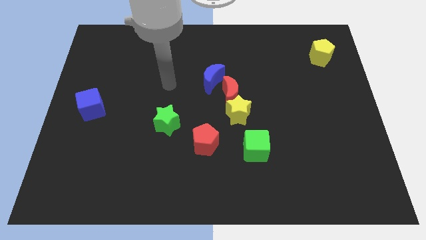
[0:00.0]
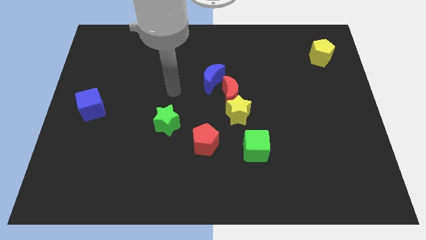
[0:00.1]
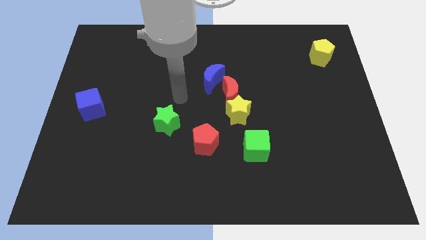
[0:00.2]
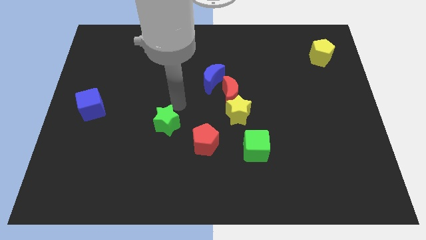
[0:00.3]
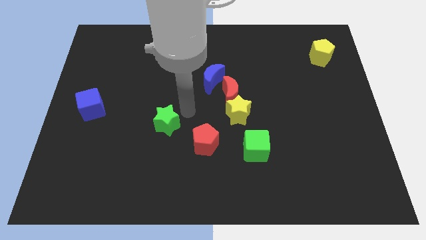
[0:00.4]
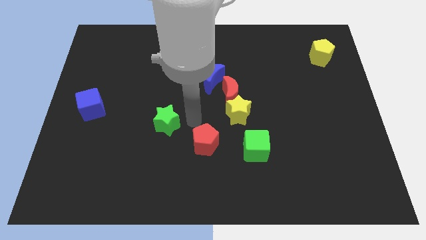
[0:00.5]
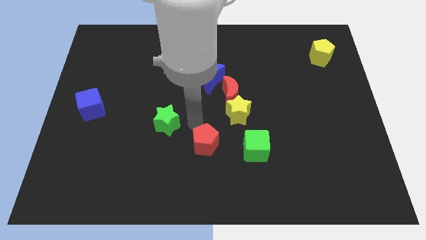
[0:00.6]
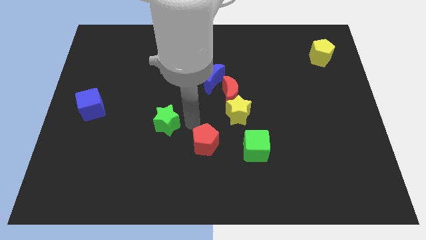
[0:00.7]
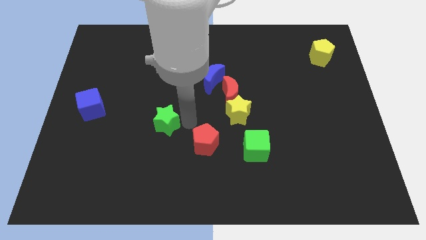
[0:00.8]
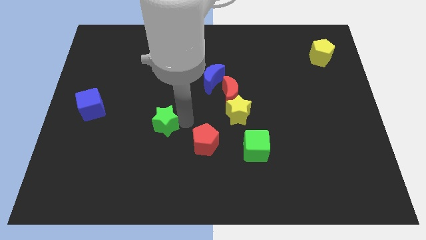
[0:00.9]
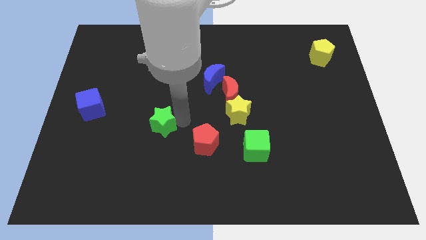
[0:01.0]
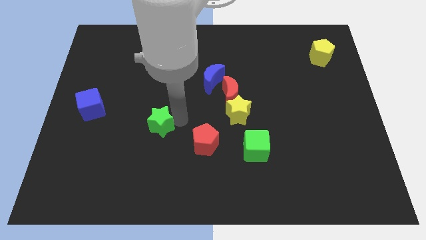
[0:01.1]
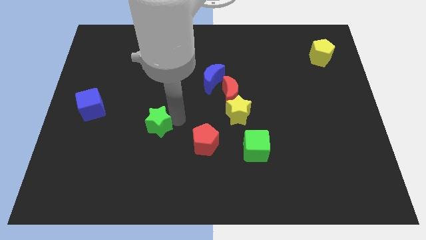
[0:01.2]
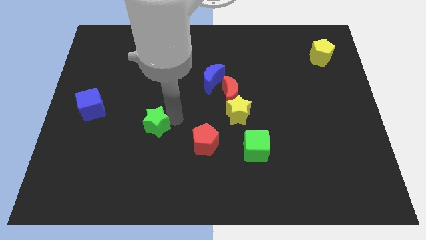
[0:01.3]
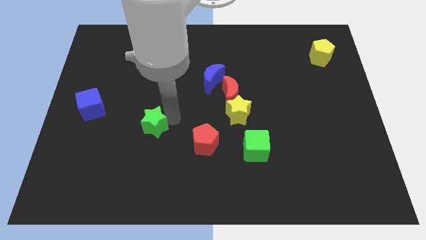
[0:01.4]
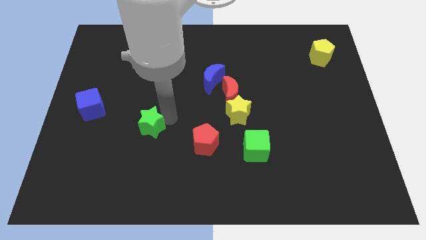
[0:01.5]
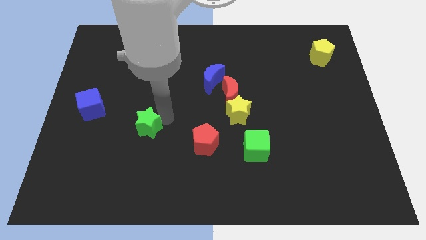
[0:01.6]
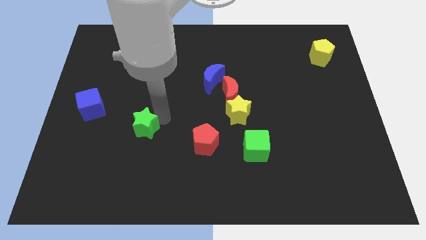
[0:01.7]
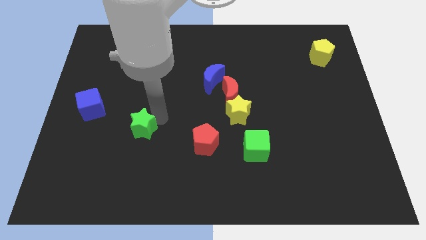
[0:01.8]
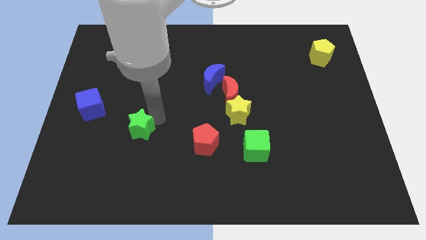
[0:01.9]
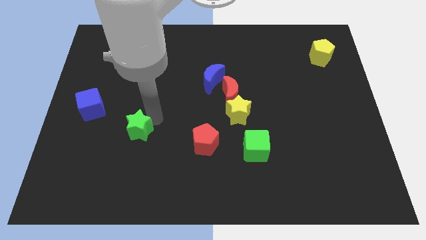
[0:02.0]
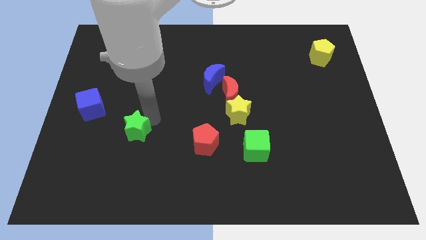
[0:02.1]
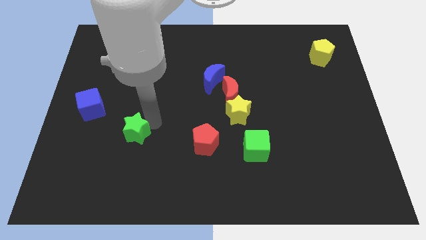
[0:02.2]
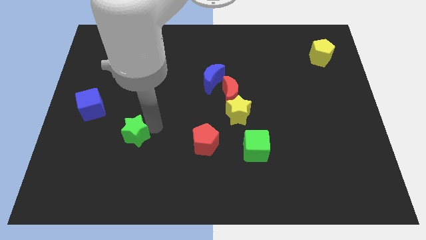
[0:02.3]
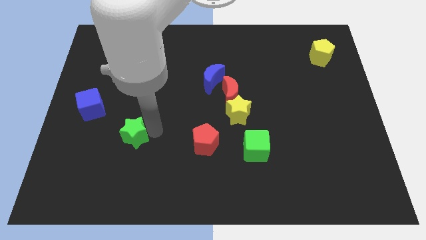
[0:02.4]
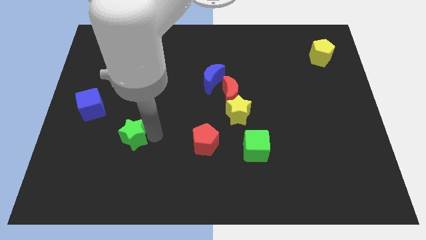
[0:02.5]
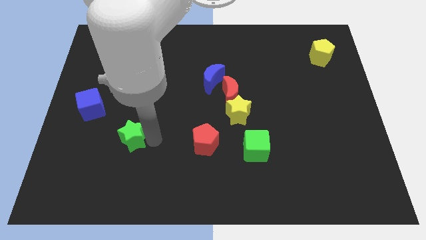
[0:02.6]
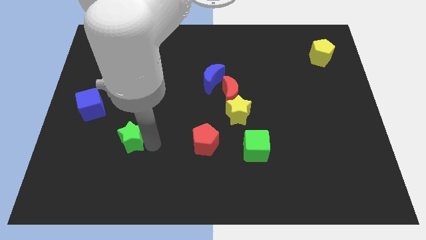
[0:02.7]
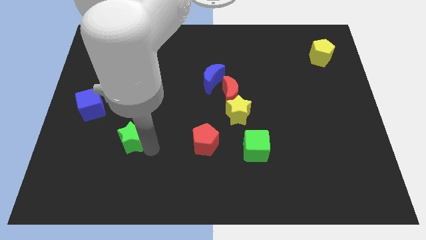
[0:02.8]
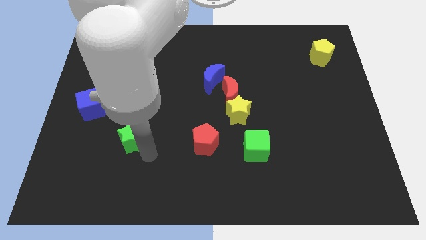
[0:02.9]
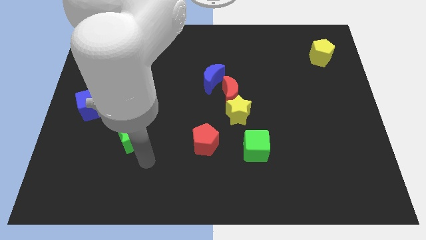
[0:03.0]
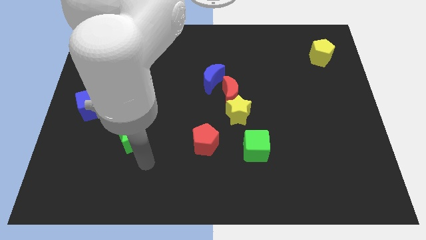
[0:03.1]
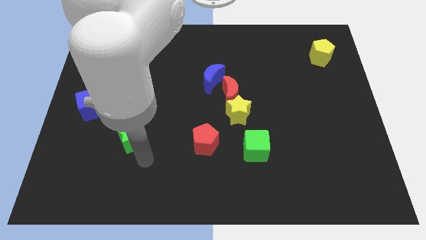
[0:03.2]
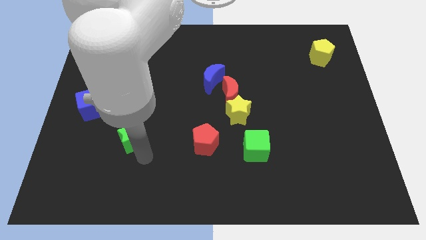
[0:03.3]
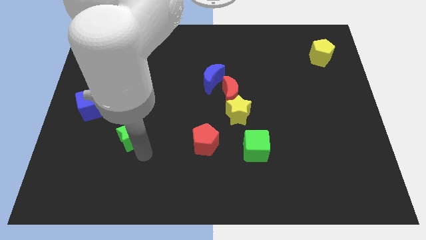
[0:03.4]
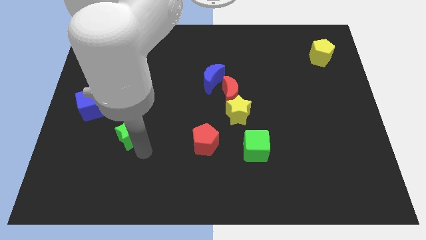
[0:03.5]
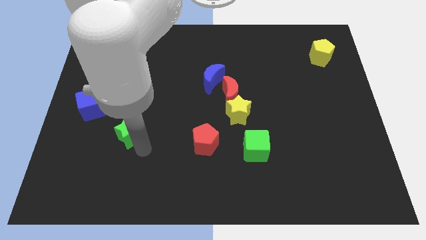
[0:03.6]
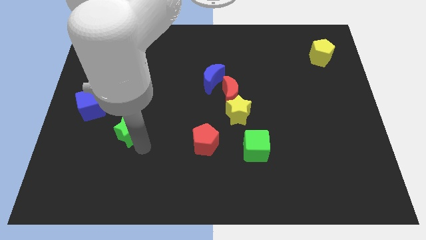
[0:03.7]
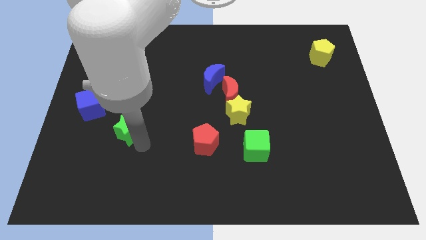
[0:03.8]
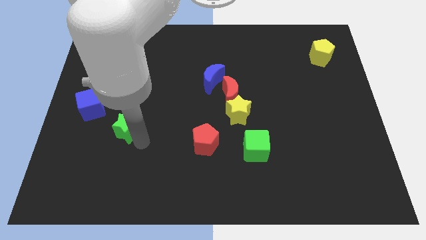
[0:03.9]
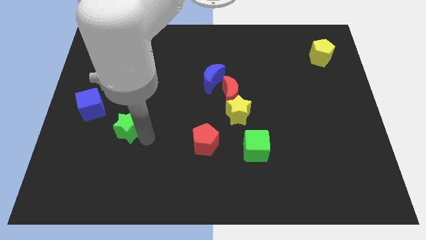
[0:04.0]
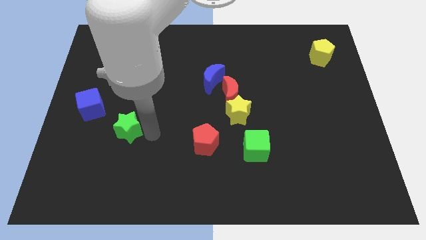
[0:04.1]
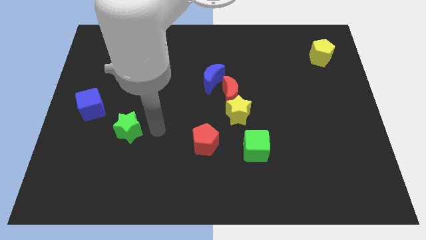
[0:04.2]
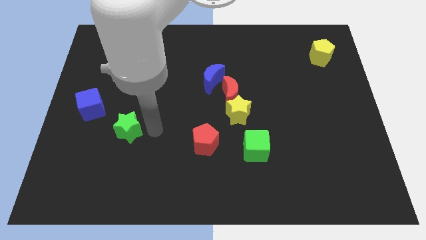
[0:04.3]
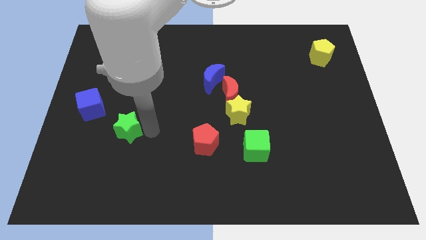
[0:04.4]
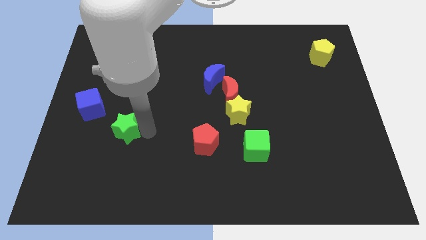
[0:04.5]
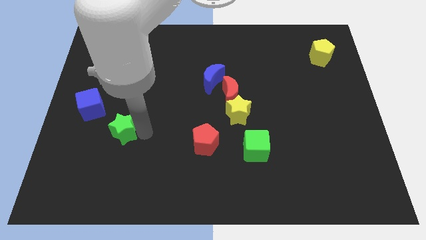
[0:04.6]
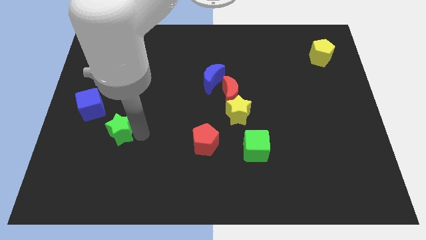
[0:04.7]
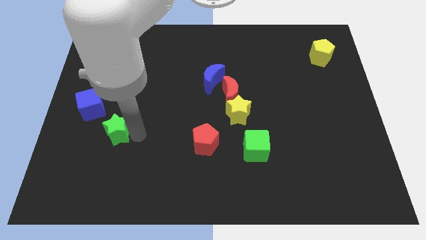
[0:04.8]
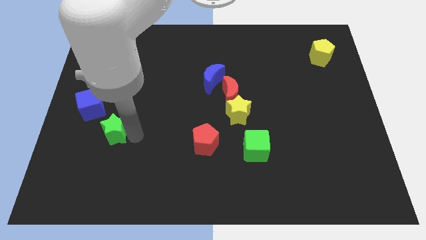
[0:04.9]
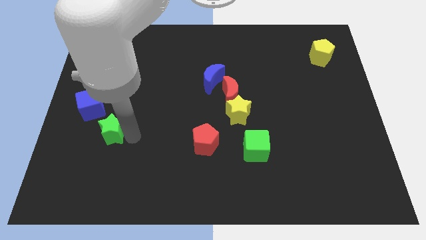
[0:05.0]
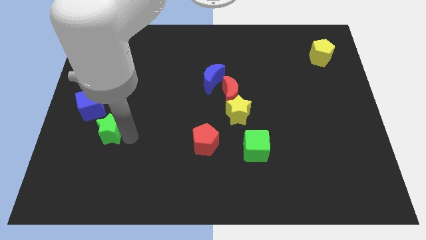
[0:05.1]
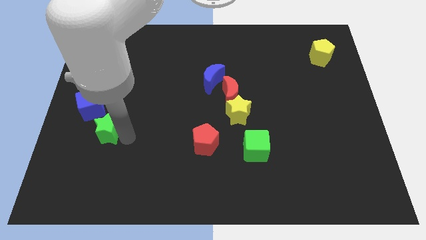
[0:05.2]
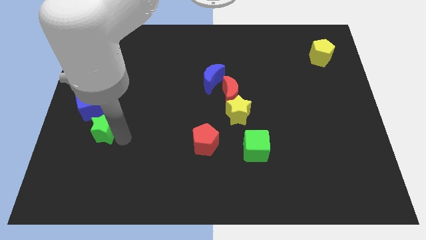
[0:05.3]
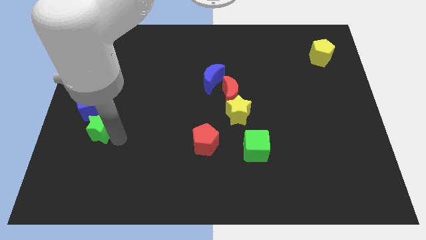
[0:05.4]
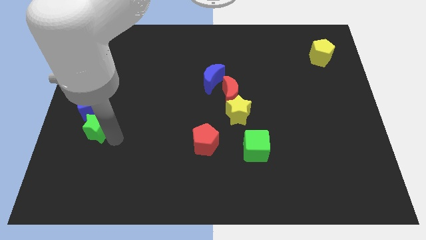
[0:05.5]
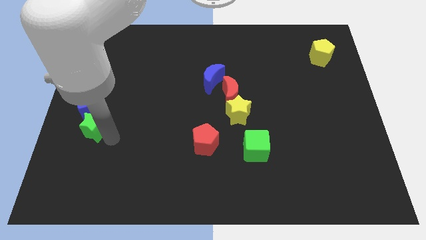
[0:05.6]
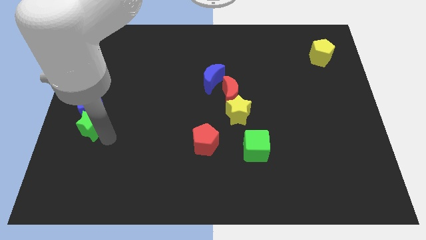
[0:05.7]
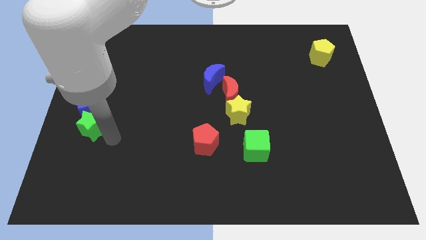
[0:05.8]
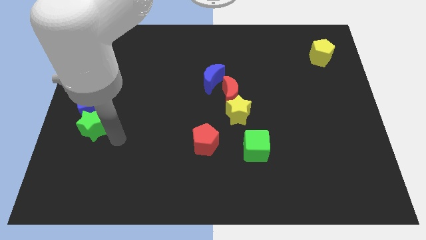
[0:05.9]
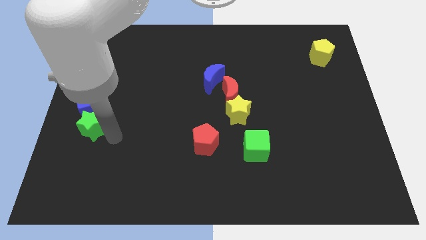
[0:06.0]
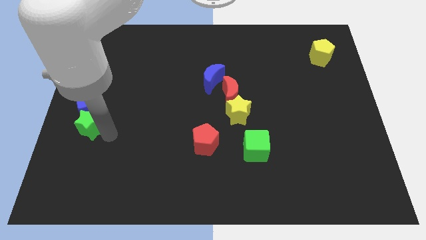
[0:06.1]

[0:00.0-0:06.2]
push the green star to the left side

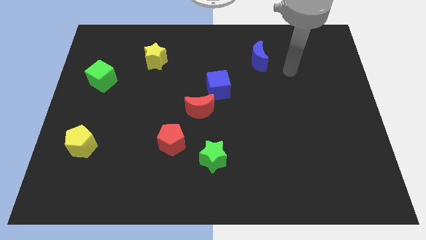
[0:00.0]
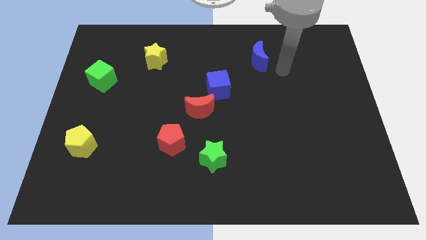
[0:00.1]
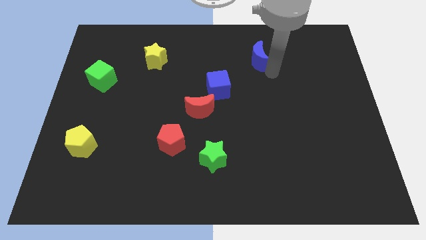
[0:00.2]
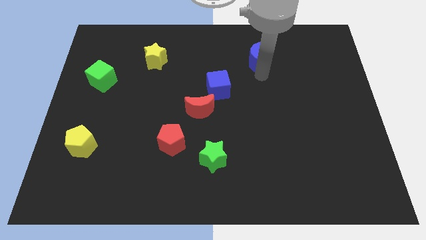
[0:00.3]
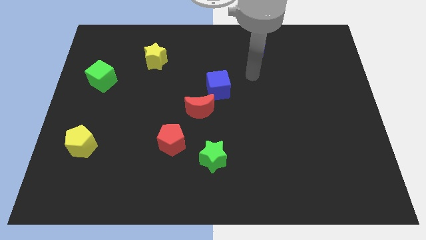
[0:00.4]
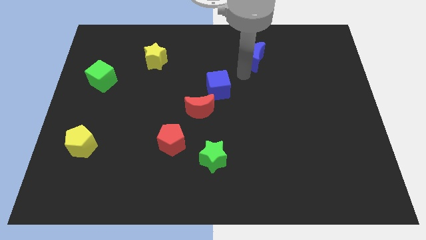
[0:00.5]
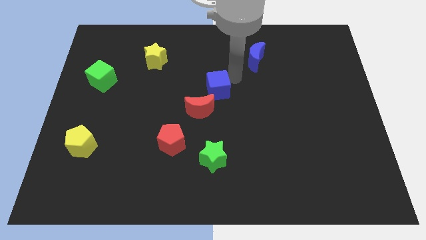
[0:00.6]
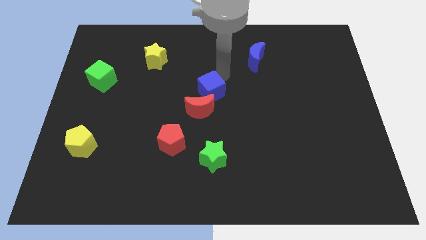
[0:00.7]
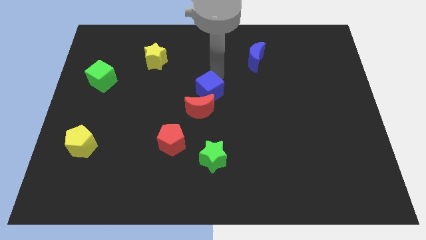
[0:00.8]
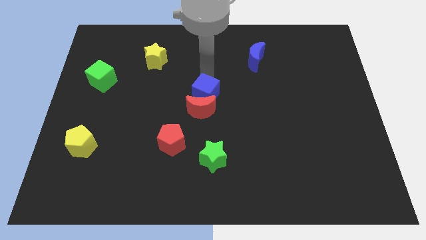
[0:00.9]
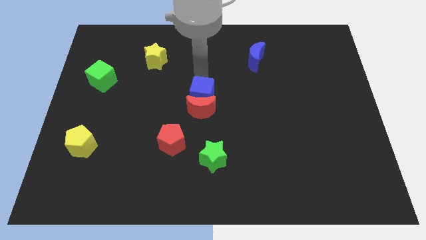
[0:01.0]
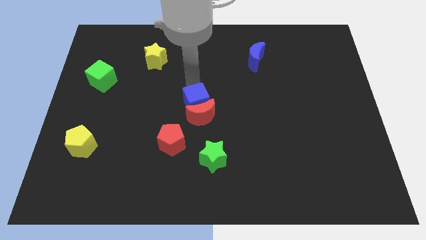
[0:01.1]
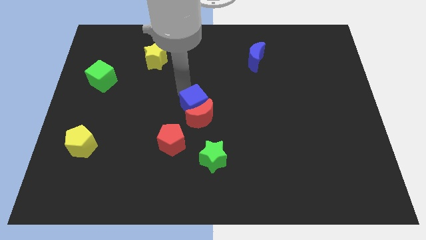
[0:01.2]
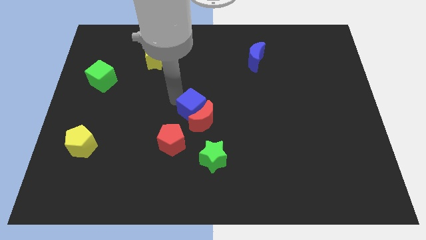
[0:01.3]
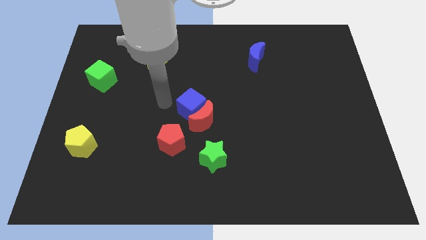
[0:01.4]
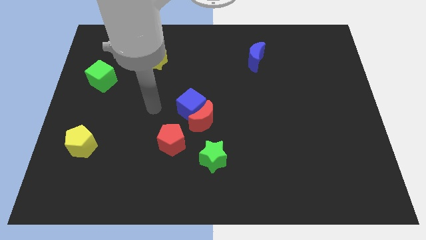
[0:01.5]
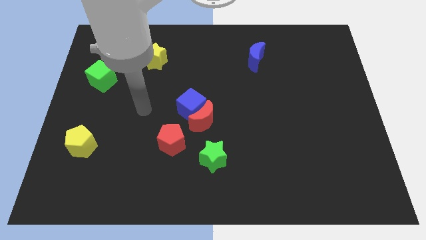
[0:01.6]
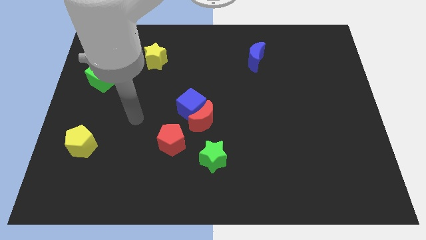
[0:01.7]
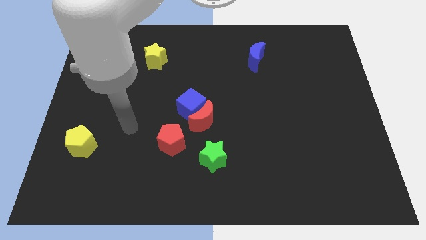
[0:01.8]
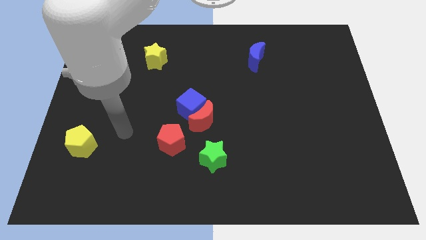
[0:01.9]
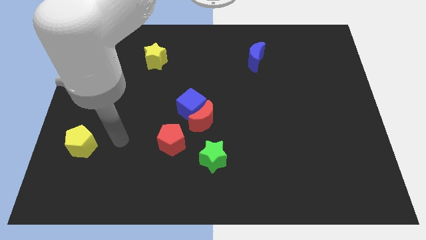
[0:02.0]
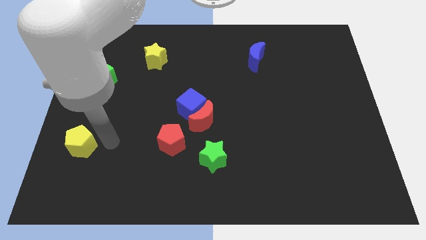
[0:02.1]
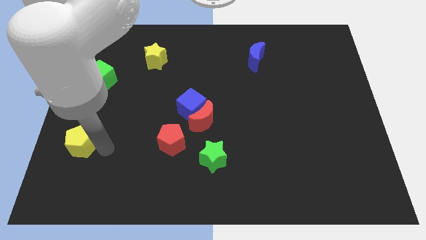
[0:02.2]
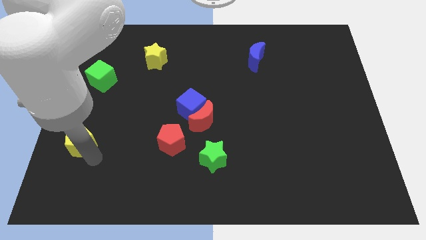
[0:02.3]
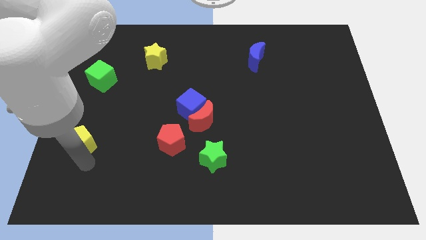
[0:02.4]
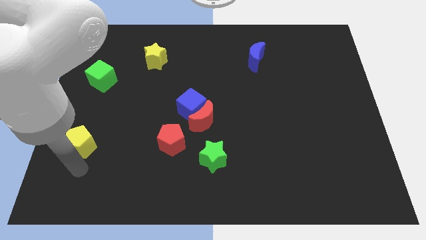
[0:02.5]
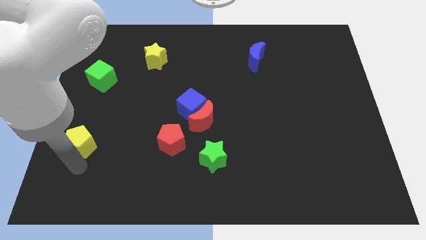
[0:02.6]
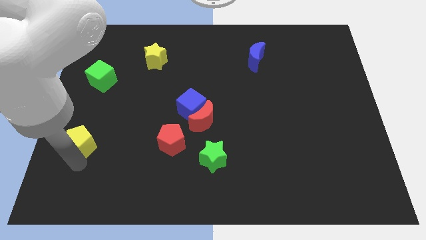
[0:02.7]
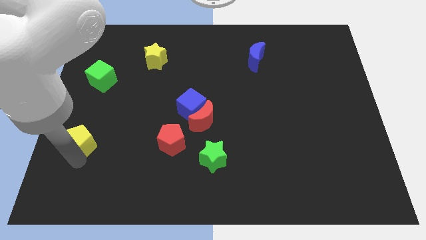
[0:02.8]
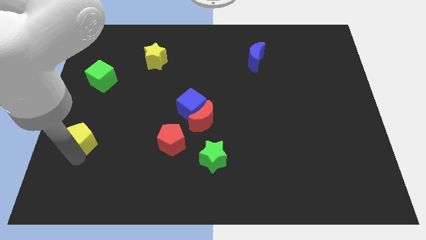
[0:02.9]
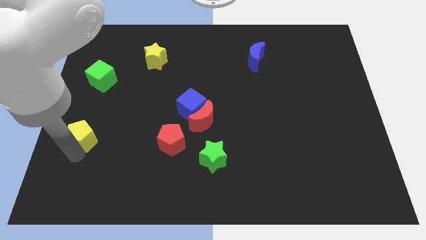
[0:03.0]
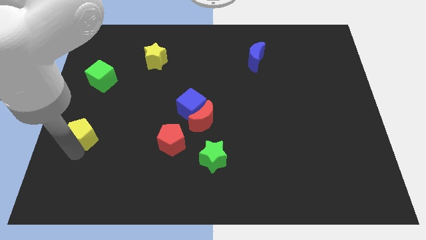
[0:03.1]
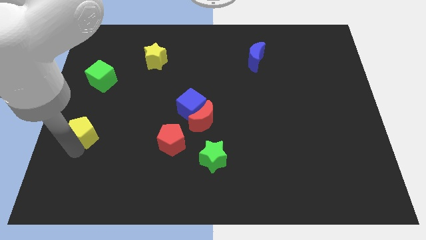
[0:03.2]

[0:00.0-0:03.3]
slide the yellow pentagon to the left side
